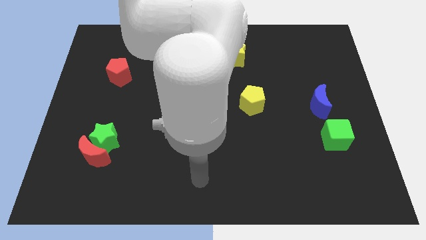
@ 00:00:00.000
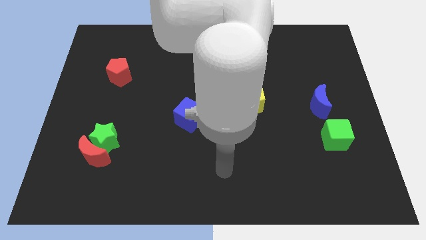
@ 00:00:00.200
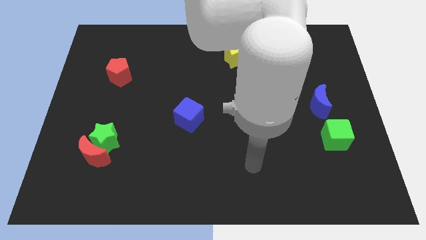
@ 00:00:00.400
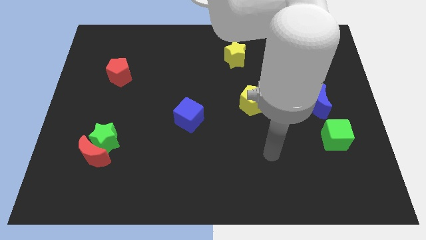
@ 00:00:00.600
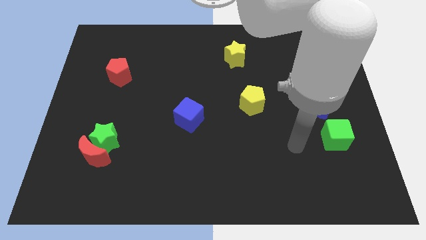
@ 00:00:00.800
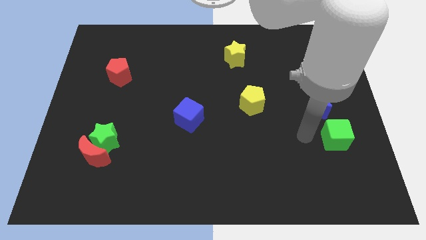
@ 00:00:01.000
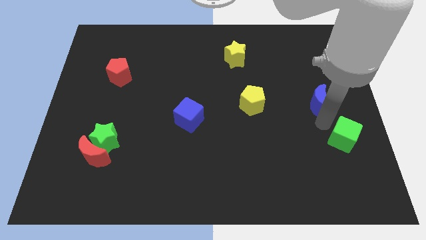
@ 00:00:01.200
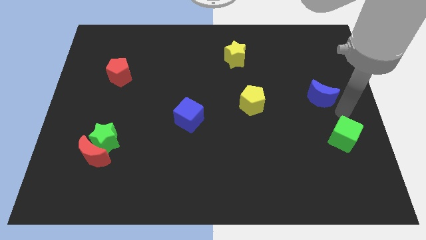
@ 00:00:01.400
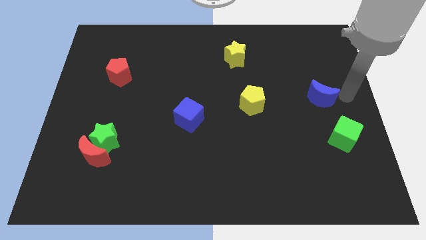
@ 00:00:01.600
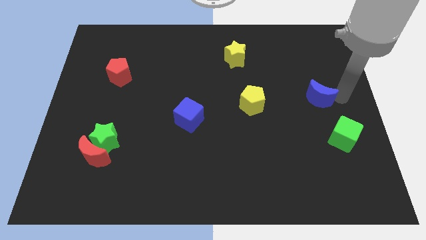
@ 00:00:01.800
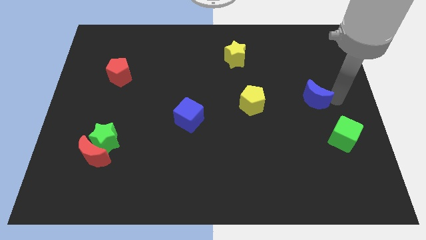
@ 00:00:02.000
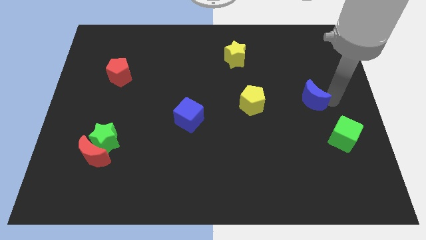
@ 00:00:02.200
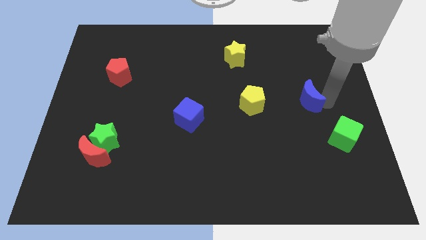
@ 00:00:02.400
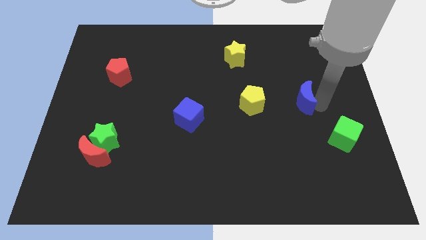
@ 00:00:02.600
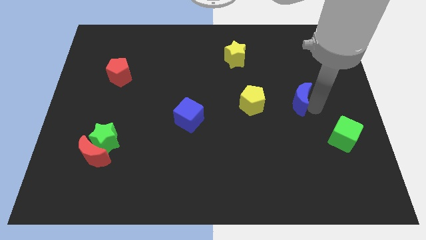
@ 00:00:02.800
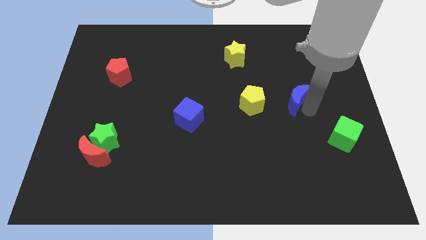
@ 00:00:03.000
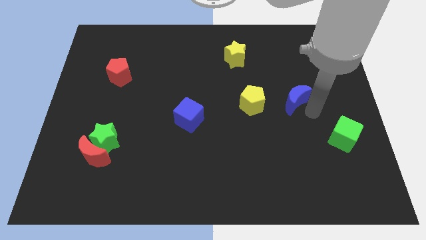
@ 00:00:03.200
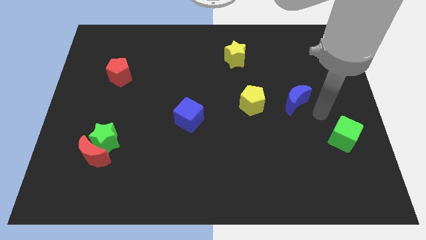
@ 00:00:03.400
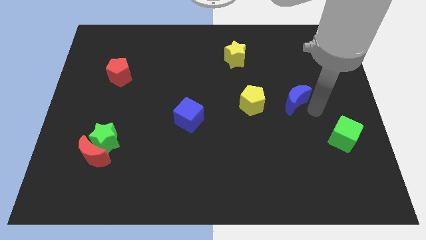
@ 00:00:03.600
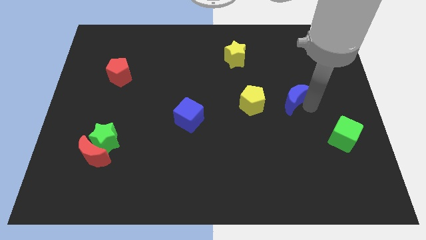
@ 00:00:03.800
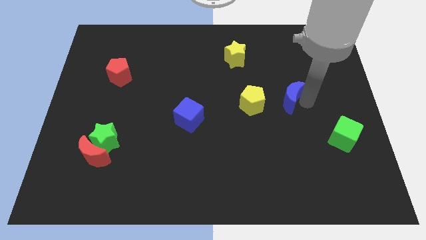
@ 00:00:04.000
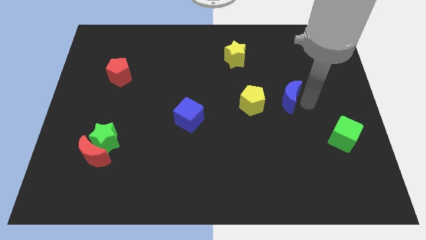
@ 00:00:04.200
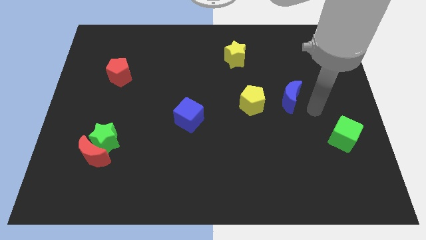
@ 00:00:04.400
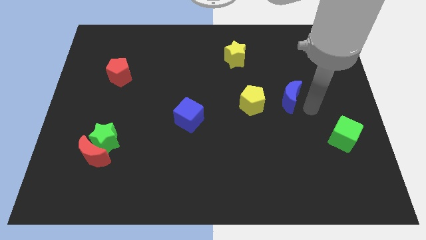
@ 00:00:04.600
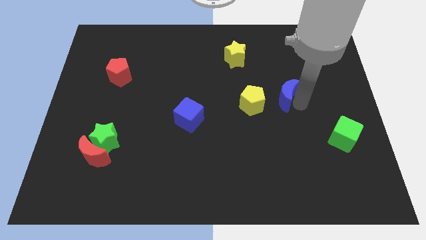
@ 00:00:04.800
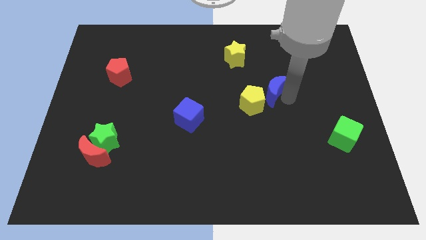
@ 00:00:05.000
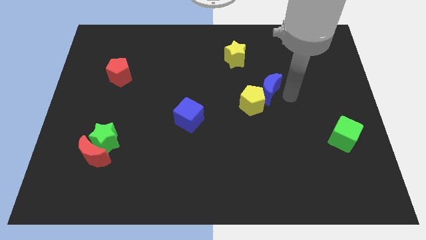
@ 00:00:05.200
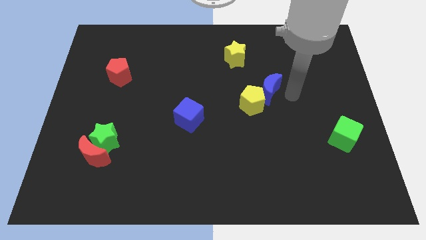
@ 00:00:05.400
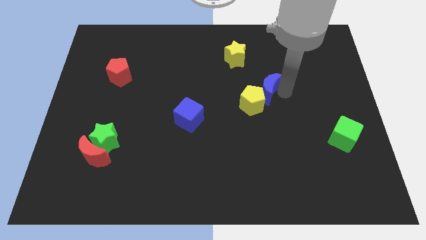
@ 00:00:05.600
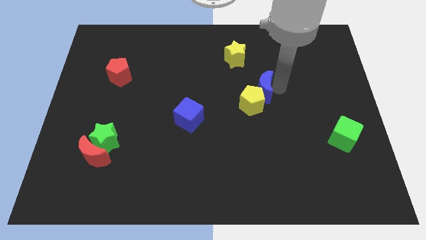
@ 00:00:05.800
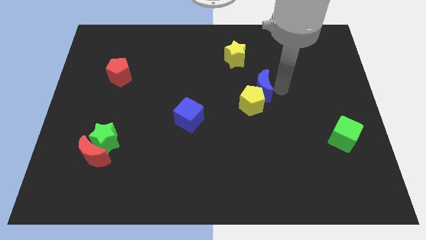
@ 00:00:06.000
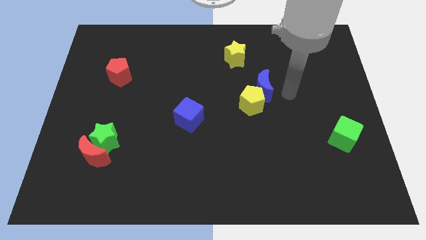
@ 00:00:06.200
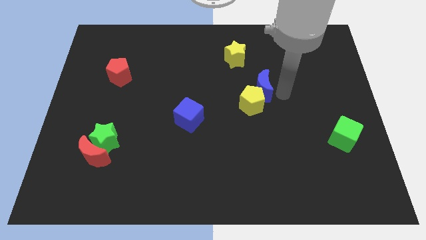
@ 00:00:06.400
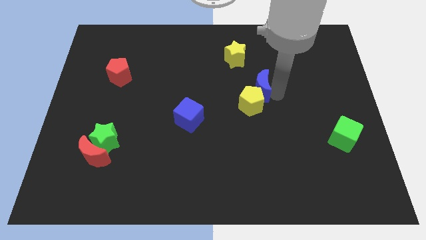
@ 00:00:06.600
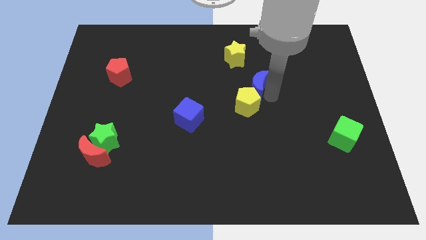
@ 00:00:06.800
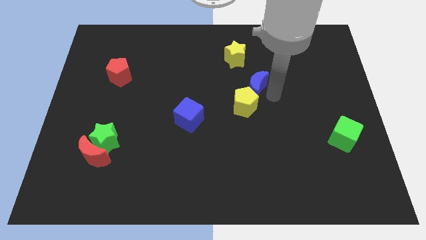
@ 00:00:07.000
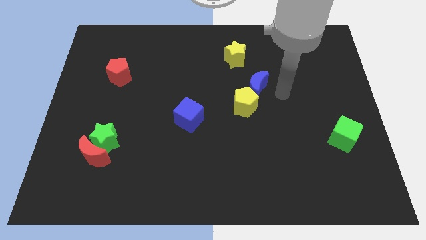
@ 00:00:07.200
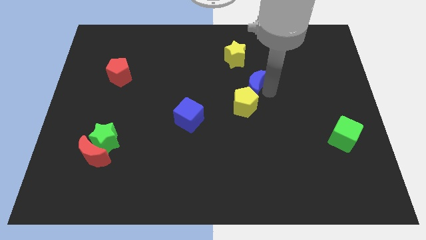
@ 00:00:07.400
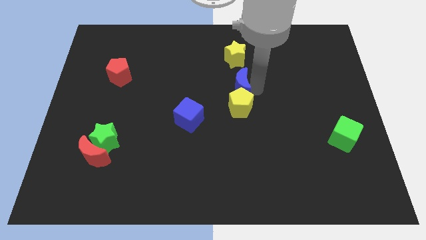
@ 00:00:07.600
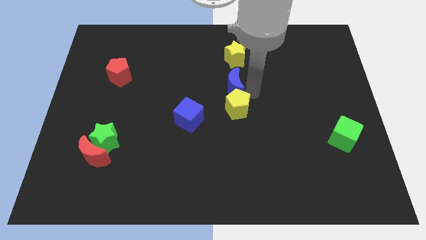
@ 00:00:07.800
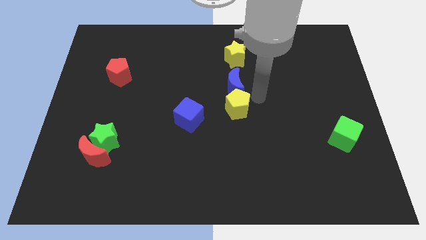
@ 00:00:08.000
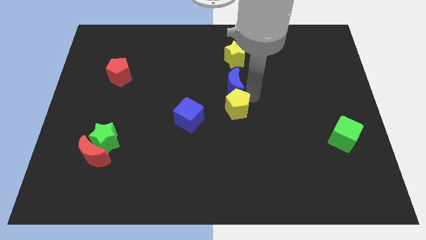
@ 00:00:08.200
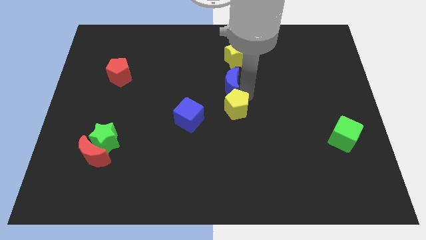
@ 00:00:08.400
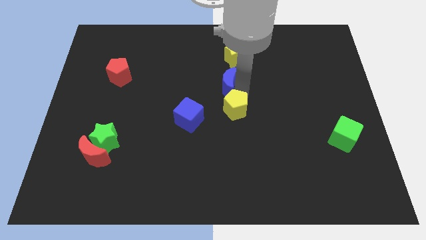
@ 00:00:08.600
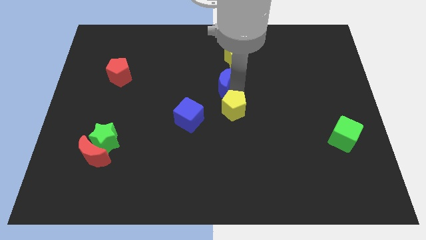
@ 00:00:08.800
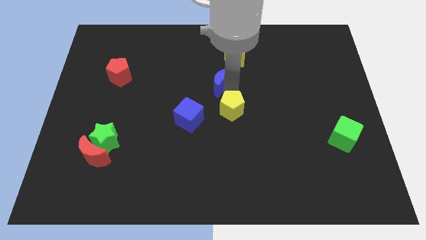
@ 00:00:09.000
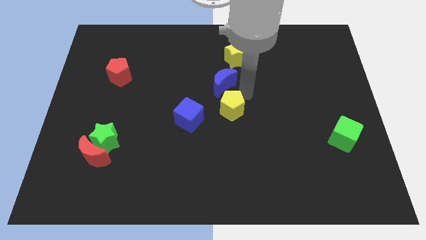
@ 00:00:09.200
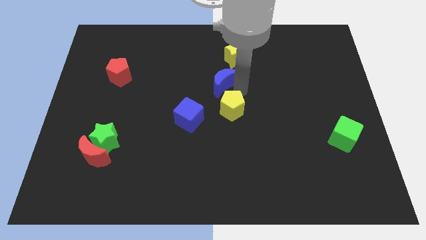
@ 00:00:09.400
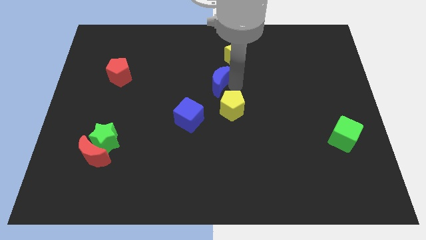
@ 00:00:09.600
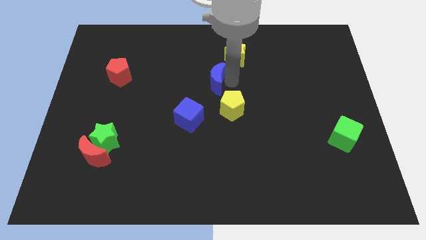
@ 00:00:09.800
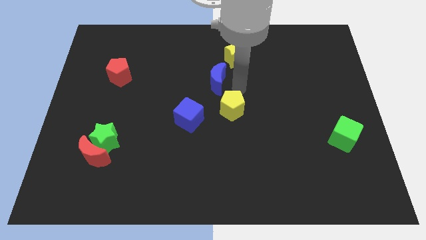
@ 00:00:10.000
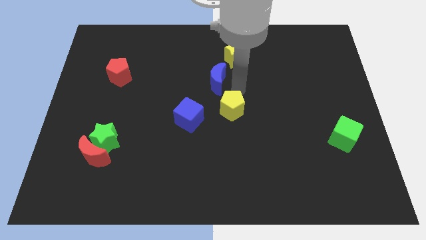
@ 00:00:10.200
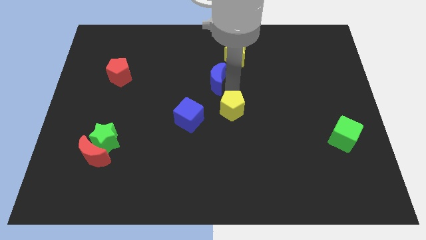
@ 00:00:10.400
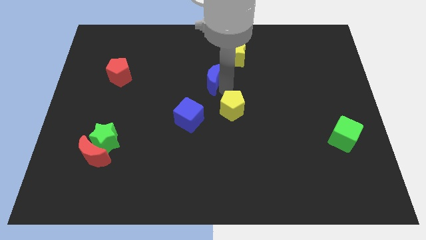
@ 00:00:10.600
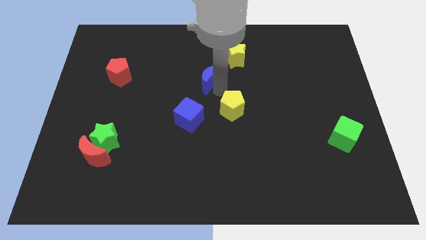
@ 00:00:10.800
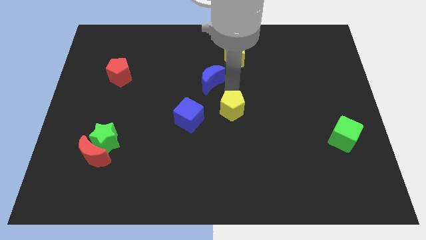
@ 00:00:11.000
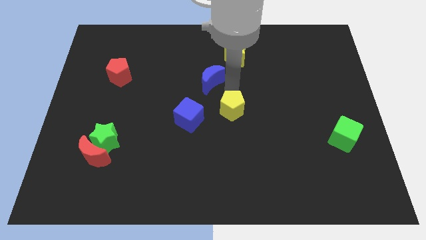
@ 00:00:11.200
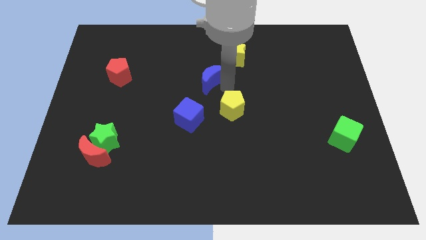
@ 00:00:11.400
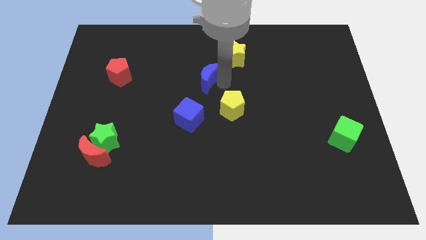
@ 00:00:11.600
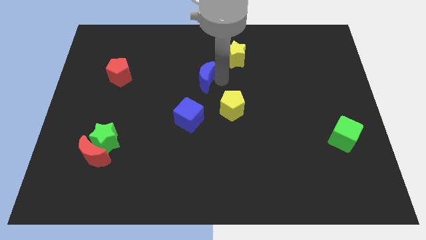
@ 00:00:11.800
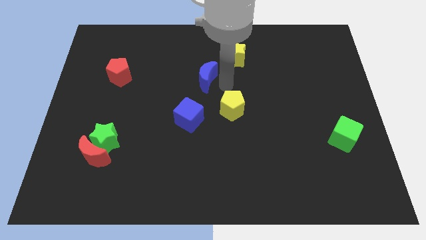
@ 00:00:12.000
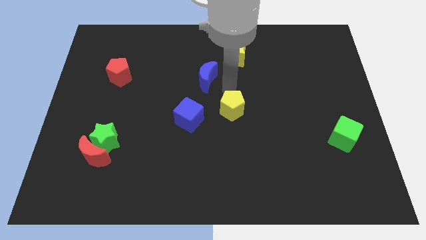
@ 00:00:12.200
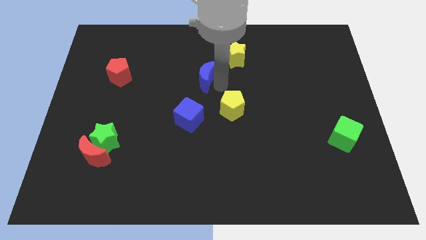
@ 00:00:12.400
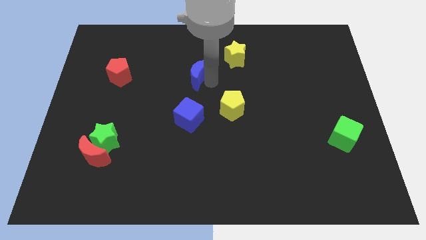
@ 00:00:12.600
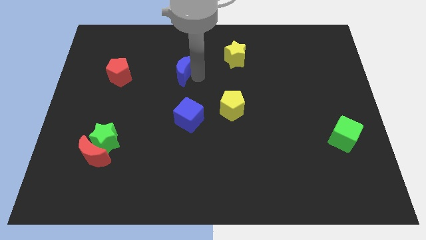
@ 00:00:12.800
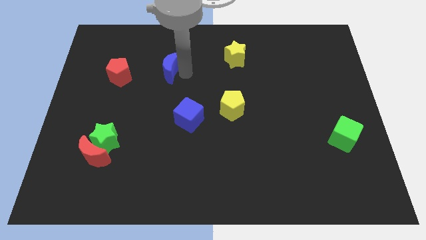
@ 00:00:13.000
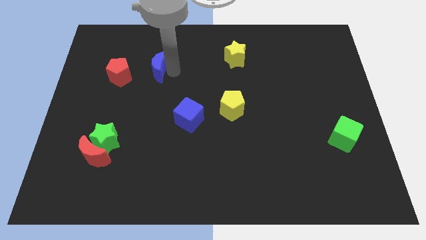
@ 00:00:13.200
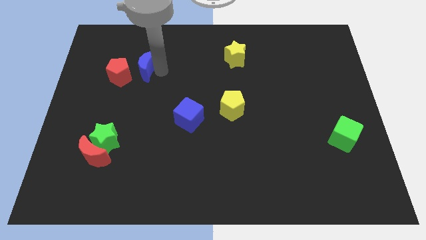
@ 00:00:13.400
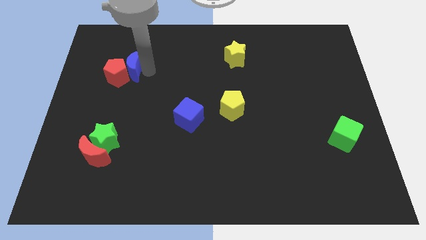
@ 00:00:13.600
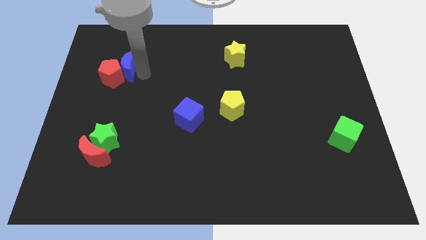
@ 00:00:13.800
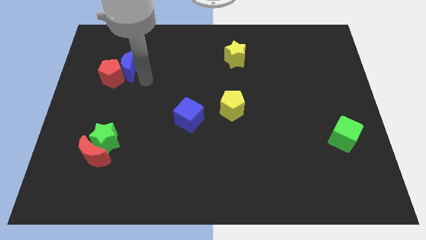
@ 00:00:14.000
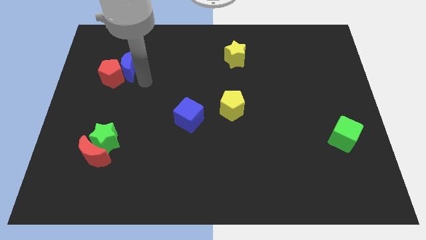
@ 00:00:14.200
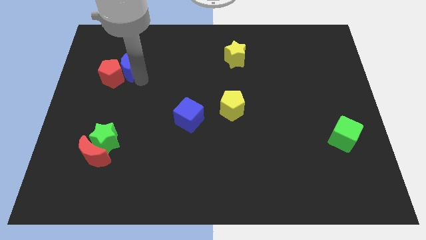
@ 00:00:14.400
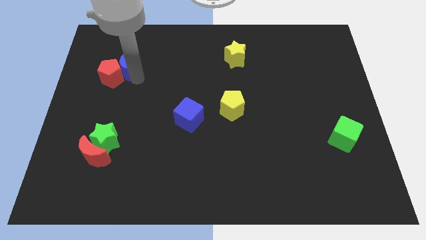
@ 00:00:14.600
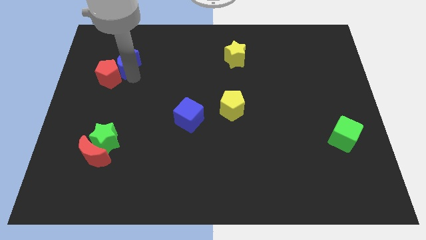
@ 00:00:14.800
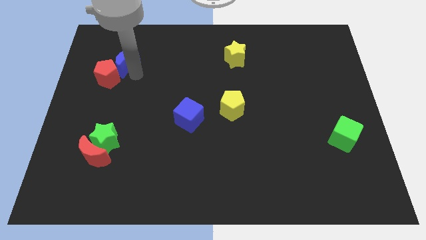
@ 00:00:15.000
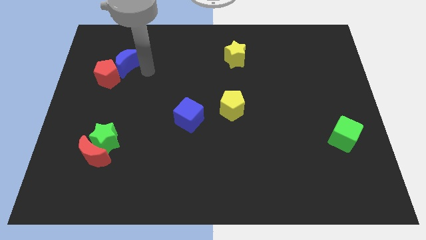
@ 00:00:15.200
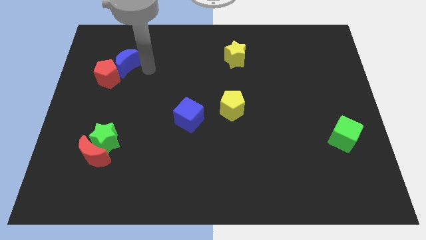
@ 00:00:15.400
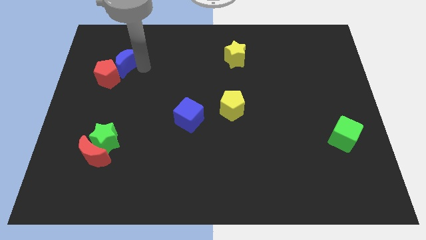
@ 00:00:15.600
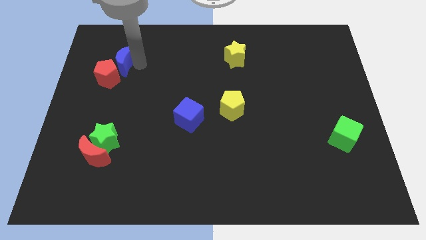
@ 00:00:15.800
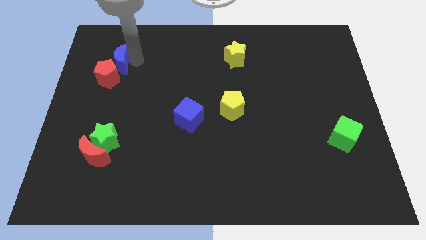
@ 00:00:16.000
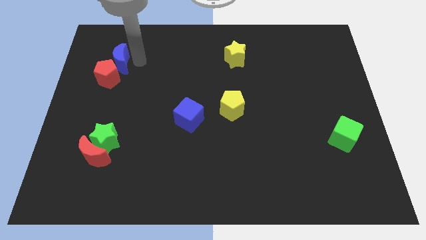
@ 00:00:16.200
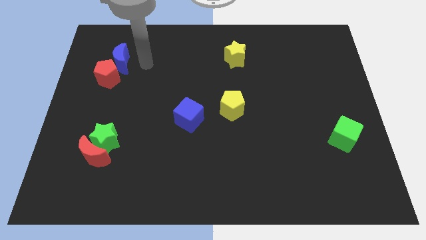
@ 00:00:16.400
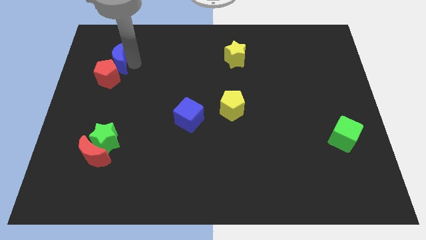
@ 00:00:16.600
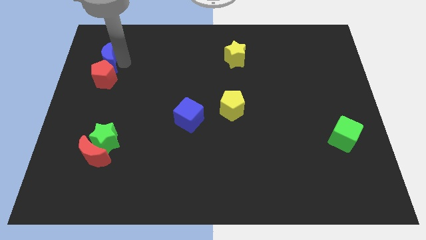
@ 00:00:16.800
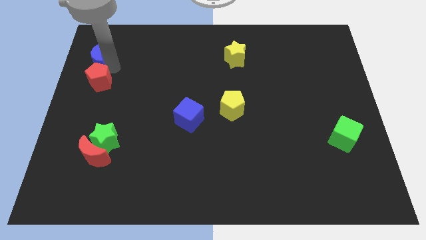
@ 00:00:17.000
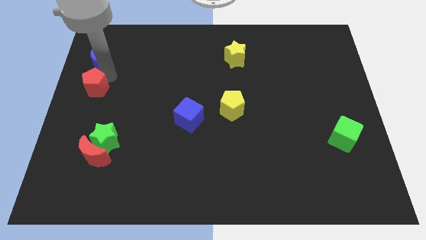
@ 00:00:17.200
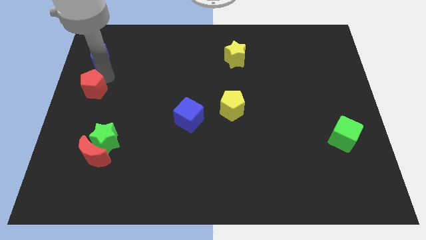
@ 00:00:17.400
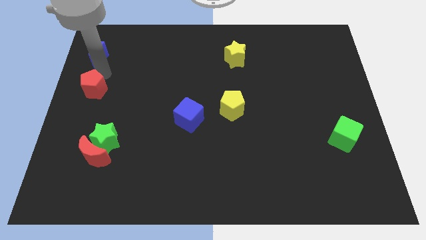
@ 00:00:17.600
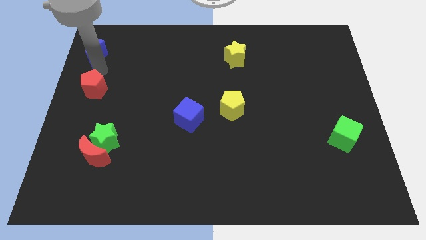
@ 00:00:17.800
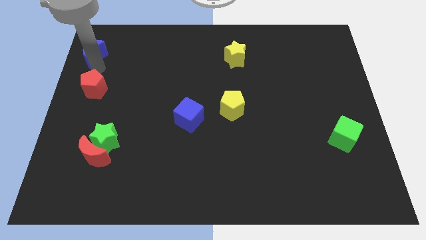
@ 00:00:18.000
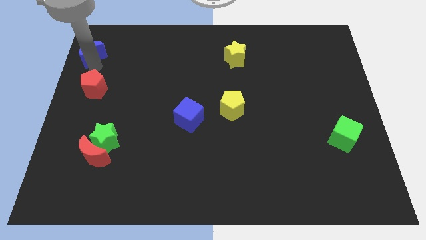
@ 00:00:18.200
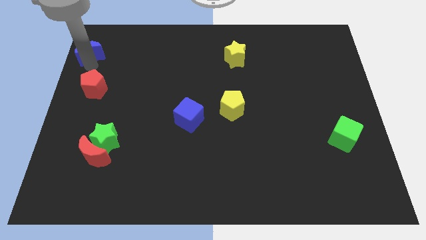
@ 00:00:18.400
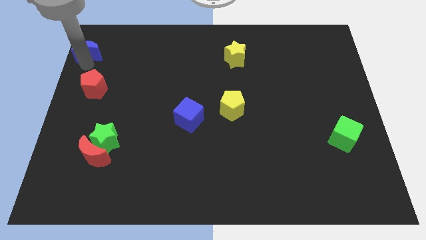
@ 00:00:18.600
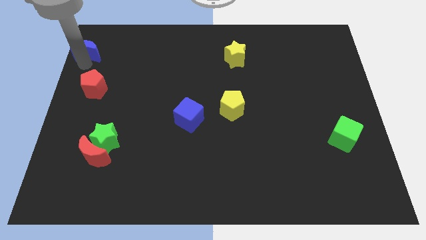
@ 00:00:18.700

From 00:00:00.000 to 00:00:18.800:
push the blue moon to the top left corner
